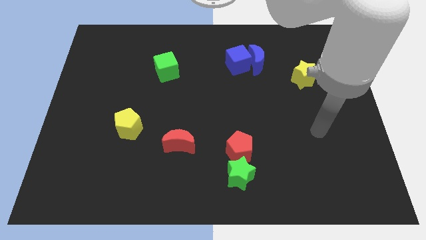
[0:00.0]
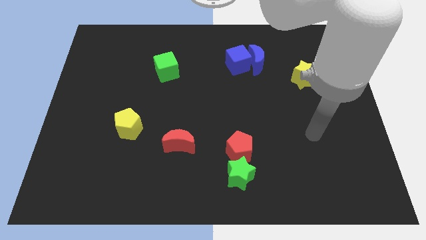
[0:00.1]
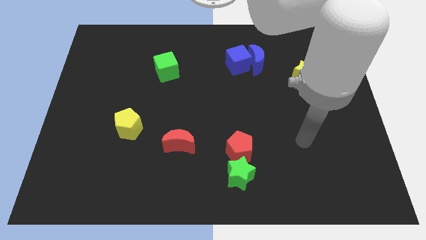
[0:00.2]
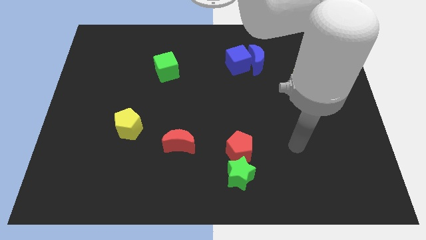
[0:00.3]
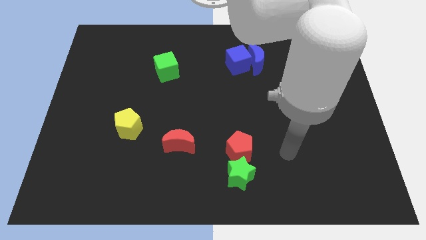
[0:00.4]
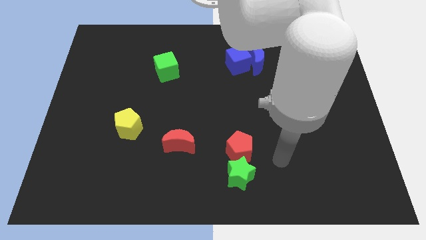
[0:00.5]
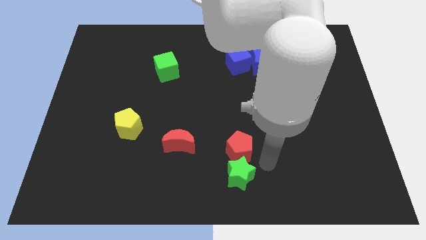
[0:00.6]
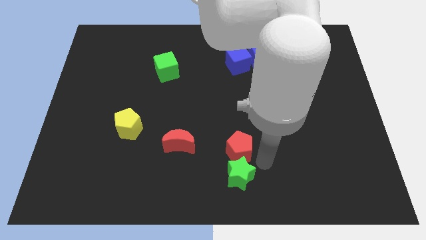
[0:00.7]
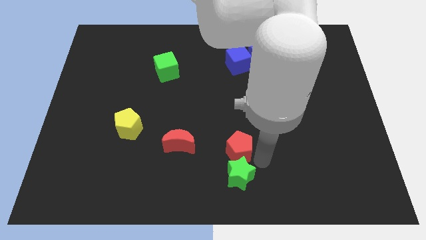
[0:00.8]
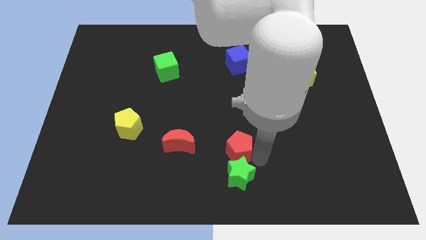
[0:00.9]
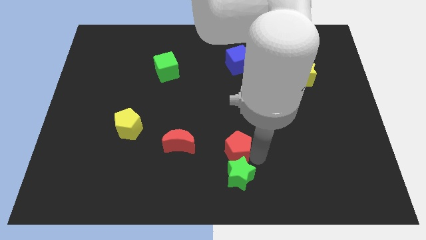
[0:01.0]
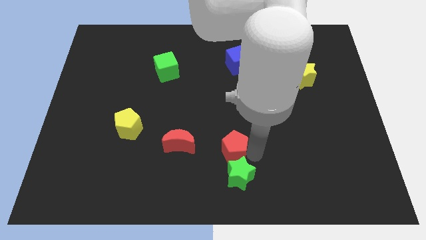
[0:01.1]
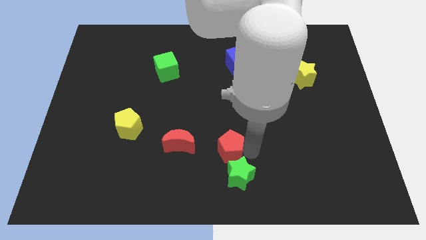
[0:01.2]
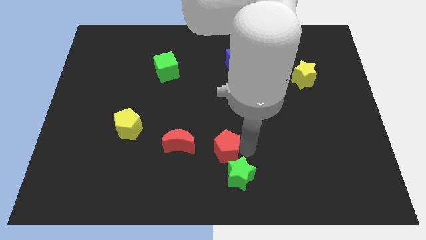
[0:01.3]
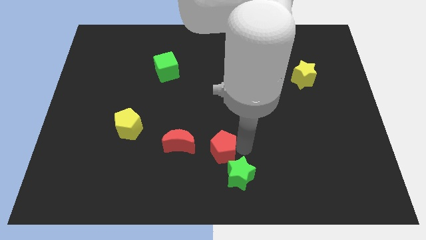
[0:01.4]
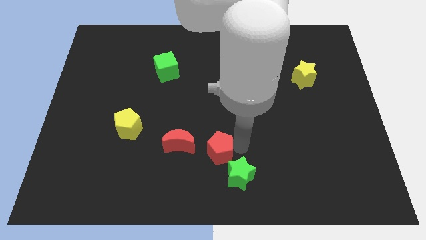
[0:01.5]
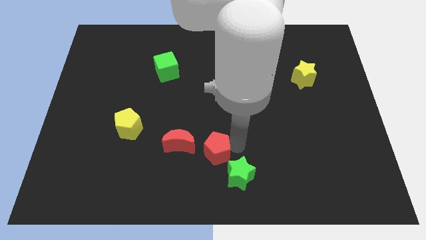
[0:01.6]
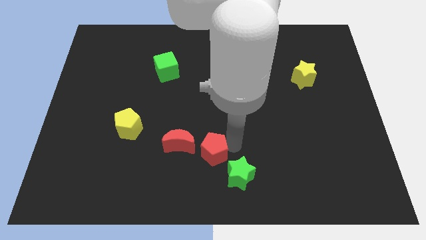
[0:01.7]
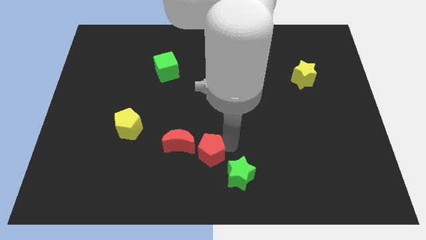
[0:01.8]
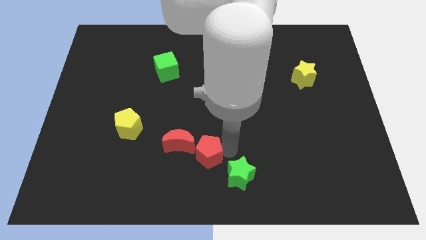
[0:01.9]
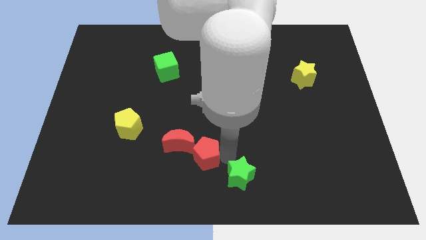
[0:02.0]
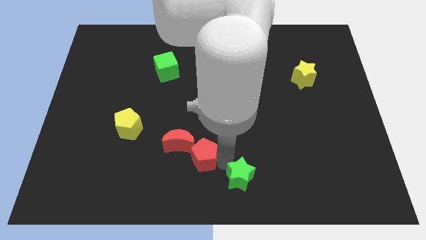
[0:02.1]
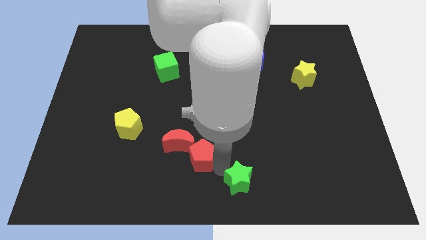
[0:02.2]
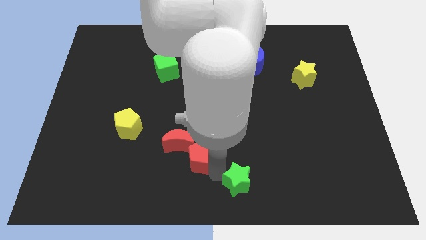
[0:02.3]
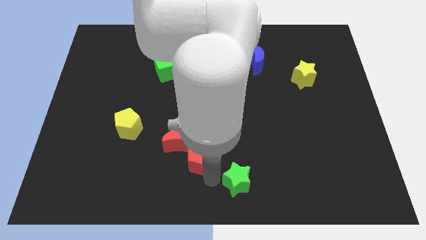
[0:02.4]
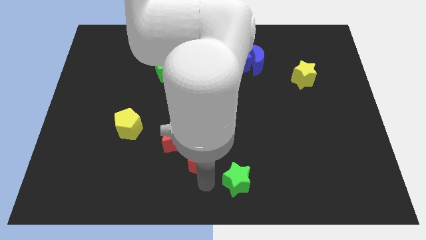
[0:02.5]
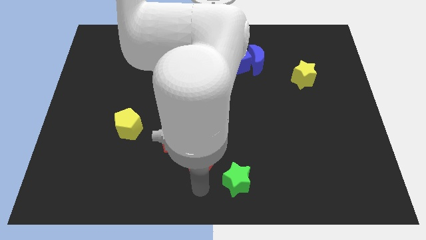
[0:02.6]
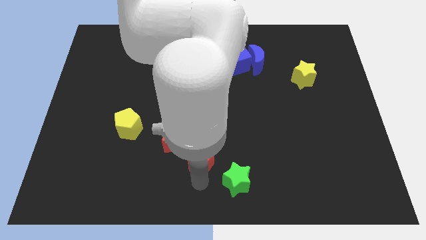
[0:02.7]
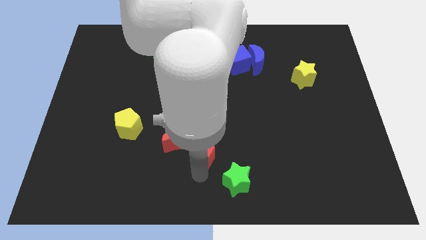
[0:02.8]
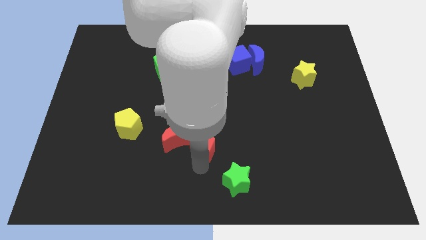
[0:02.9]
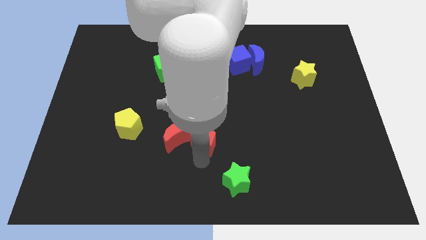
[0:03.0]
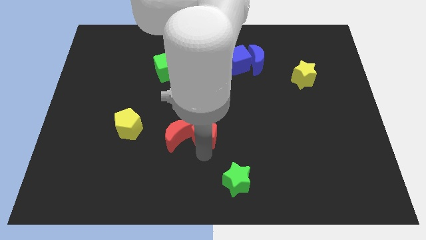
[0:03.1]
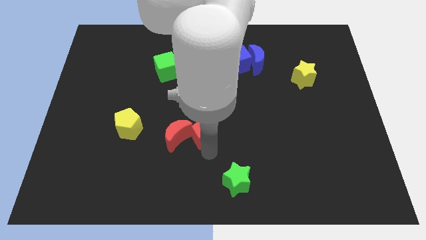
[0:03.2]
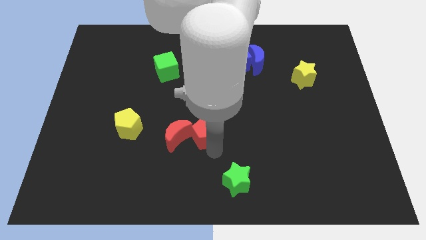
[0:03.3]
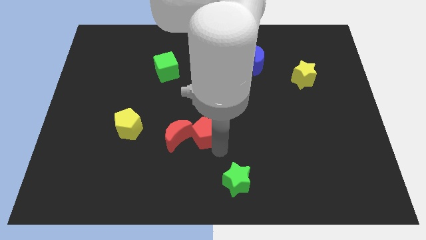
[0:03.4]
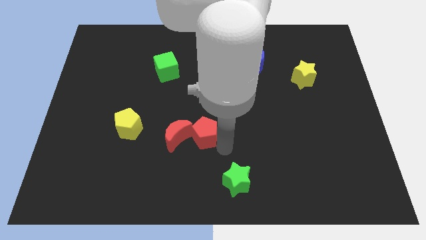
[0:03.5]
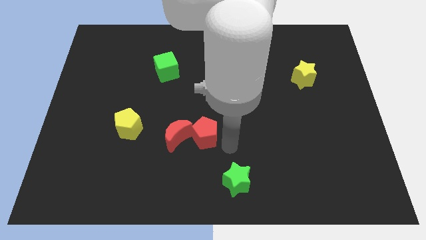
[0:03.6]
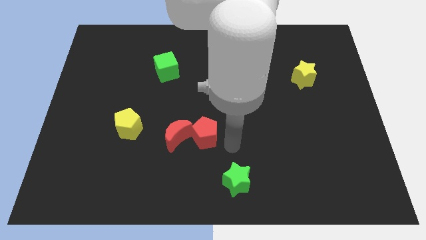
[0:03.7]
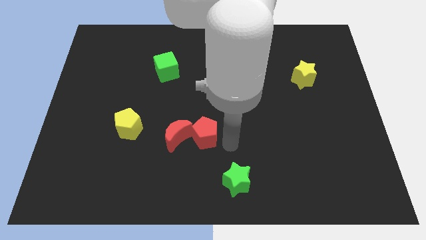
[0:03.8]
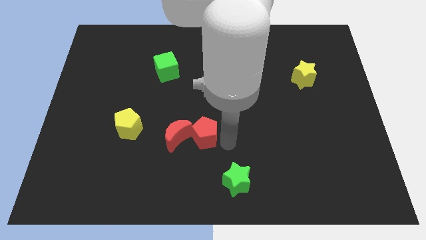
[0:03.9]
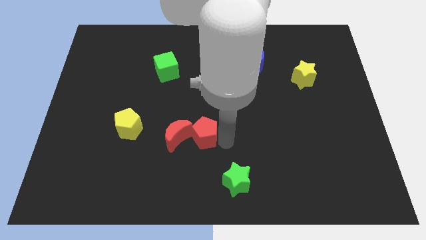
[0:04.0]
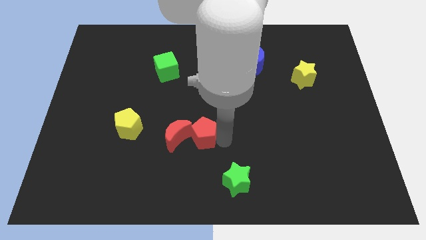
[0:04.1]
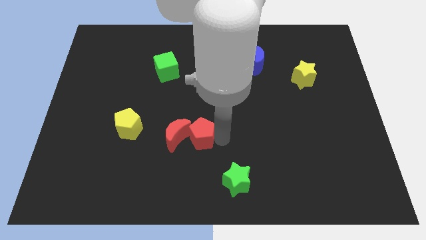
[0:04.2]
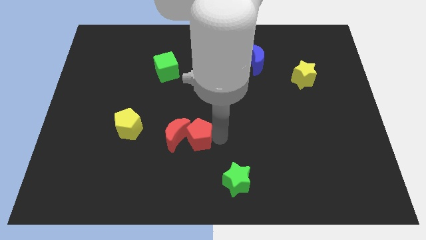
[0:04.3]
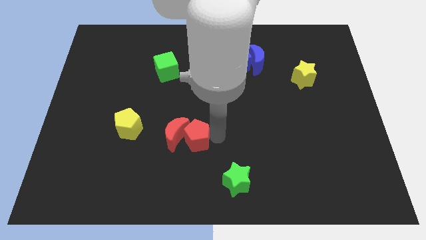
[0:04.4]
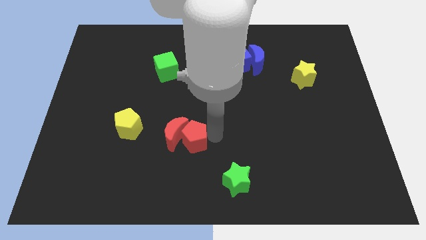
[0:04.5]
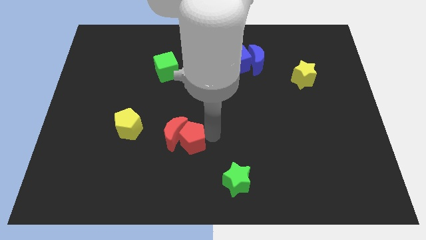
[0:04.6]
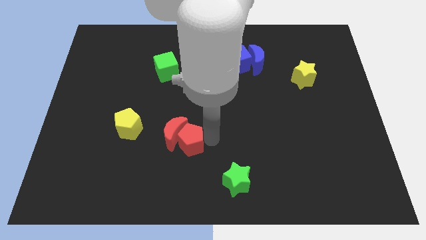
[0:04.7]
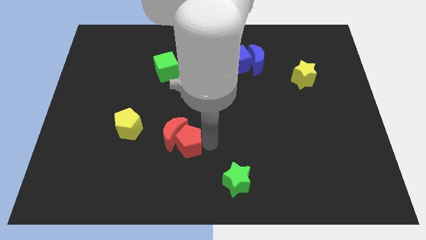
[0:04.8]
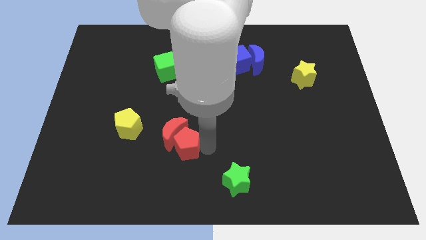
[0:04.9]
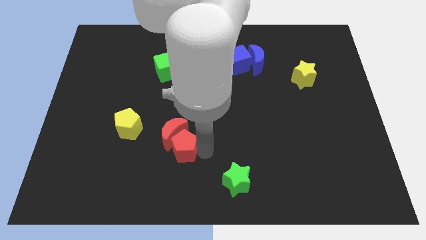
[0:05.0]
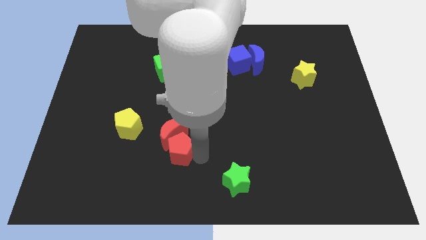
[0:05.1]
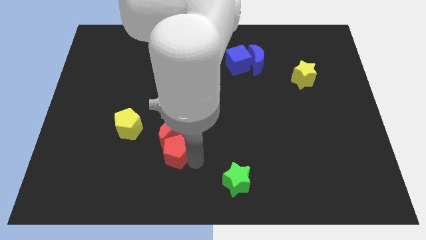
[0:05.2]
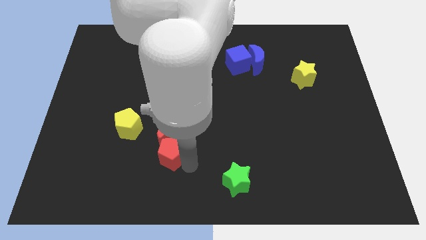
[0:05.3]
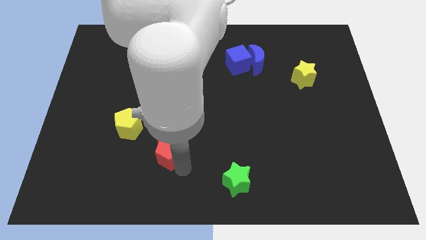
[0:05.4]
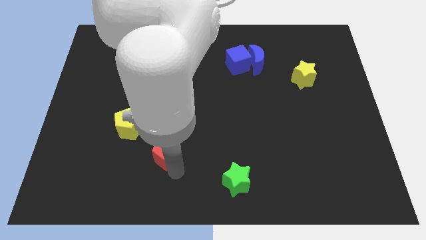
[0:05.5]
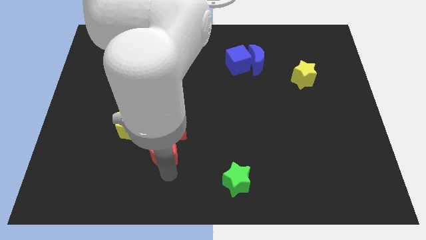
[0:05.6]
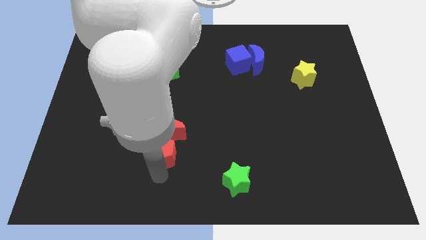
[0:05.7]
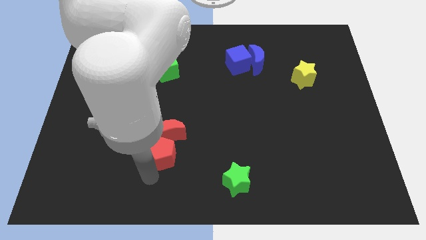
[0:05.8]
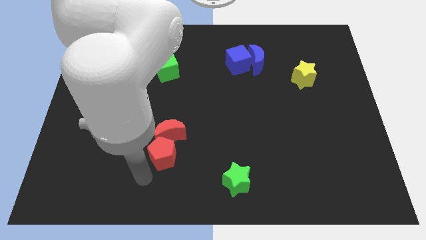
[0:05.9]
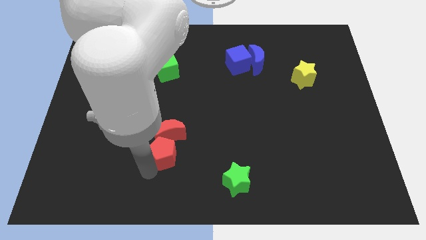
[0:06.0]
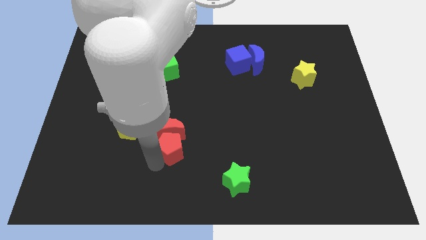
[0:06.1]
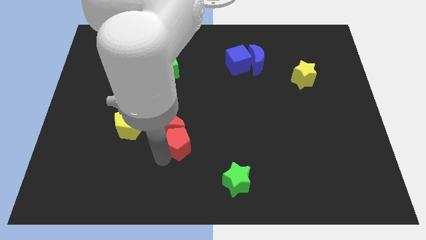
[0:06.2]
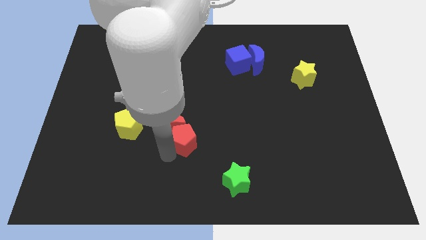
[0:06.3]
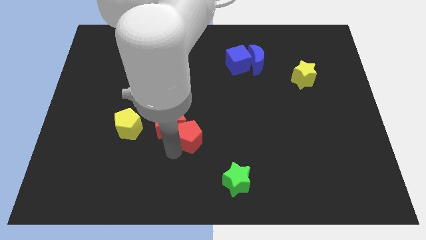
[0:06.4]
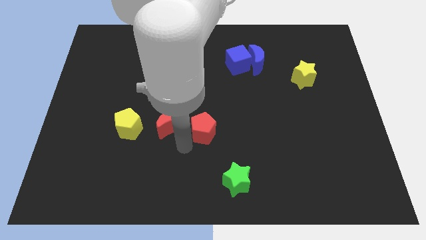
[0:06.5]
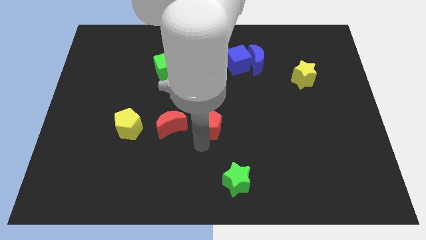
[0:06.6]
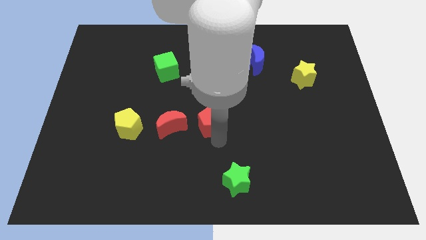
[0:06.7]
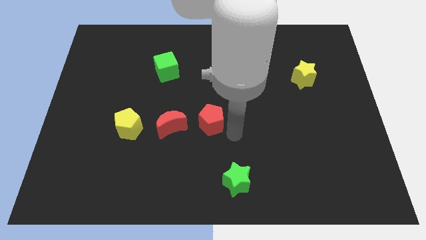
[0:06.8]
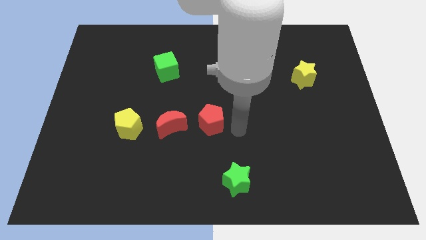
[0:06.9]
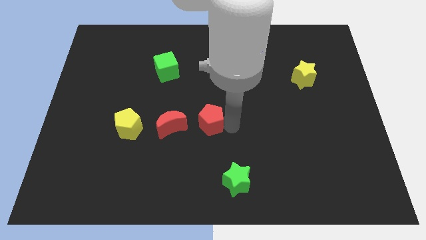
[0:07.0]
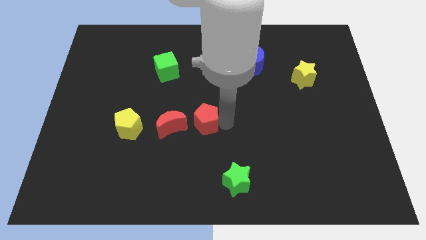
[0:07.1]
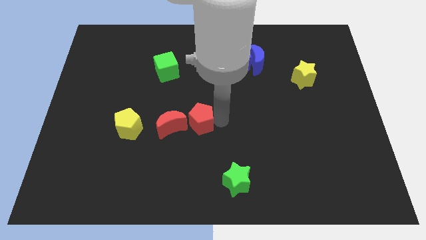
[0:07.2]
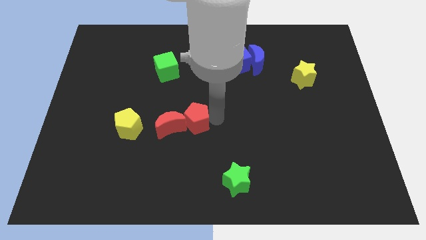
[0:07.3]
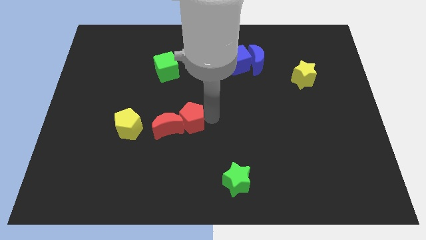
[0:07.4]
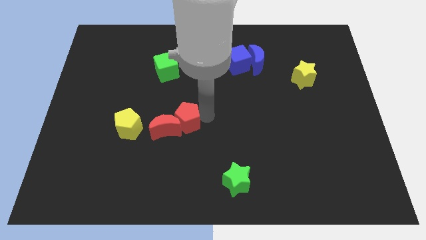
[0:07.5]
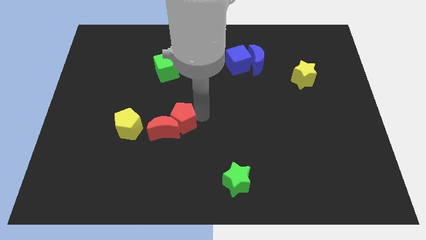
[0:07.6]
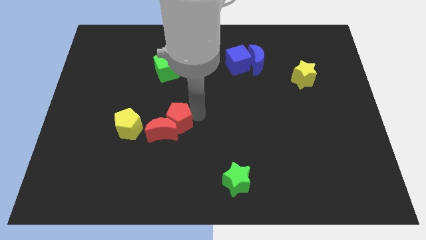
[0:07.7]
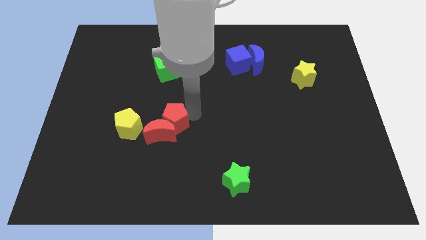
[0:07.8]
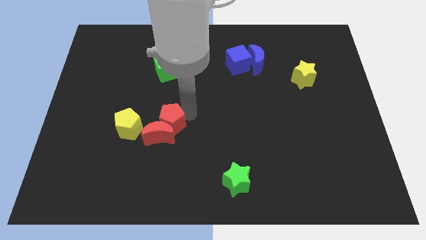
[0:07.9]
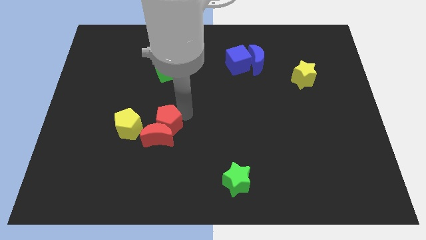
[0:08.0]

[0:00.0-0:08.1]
put the red pentagon diagonally up and to the left of the red moon
